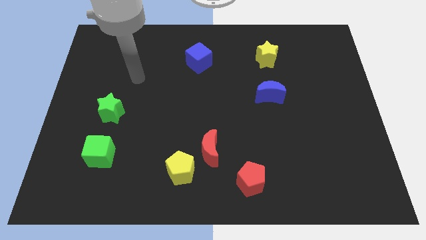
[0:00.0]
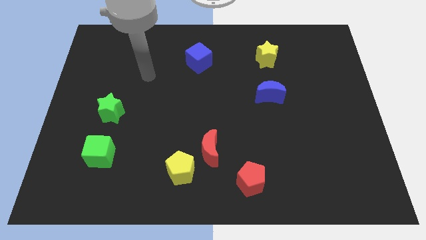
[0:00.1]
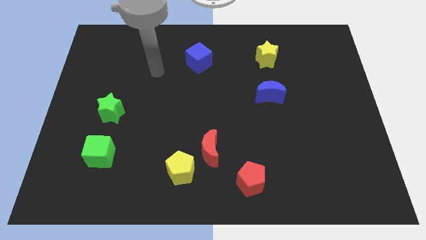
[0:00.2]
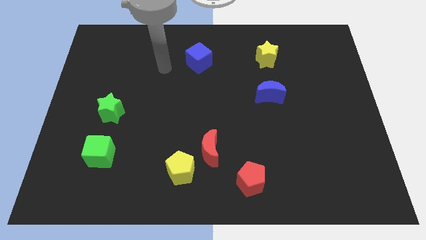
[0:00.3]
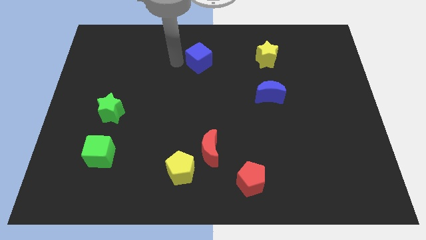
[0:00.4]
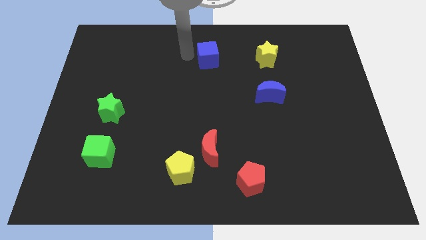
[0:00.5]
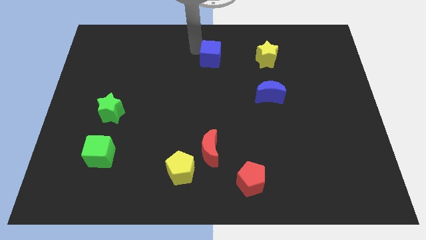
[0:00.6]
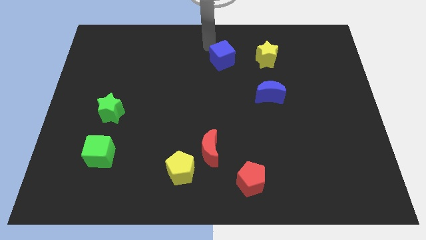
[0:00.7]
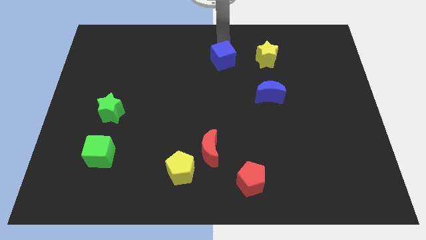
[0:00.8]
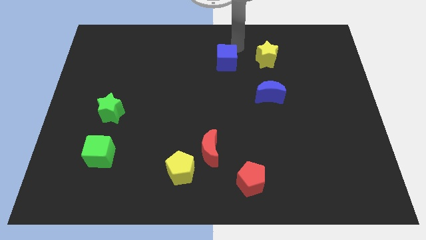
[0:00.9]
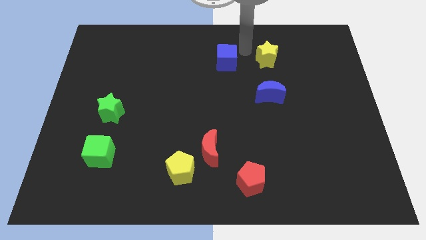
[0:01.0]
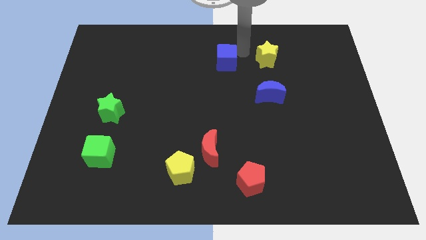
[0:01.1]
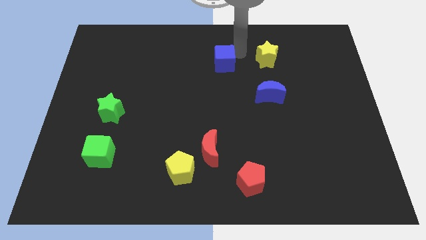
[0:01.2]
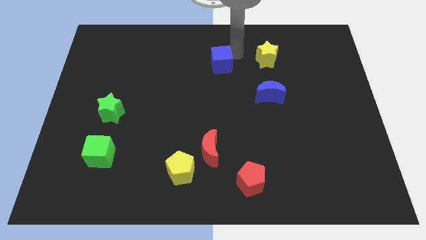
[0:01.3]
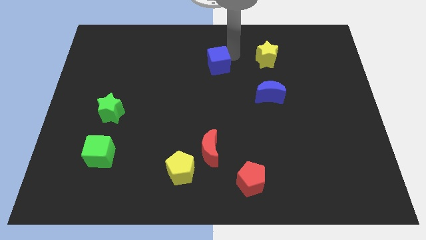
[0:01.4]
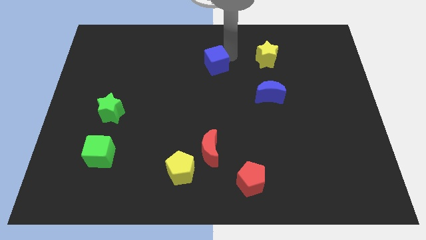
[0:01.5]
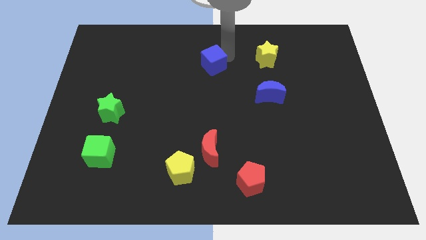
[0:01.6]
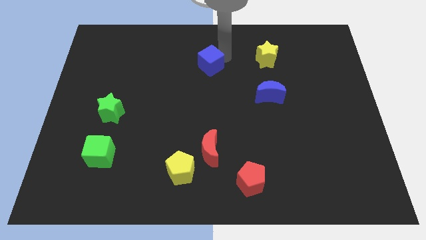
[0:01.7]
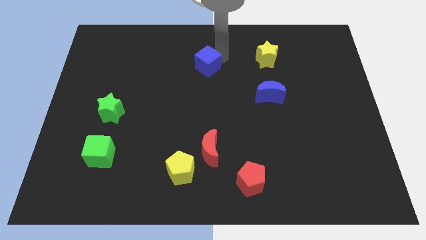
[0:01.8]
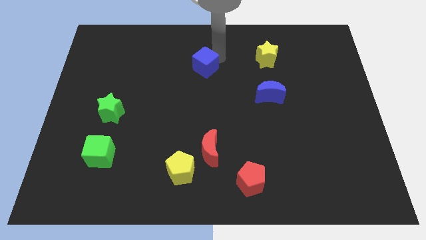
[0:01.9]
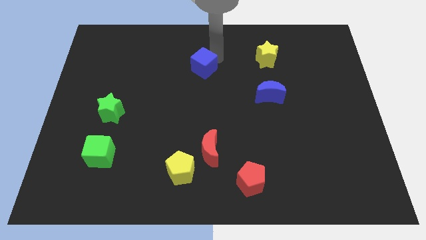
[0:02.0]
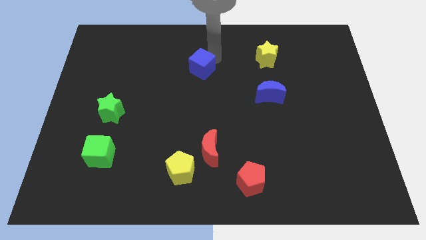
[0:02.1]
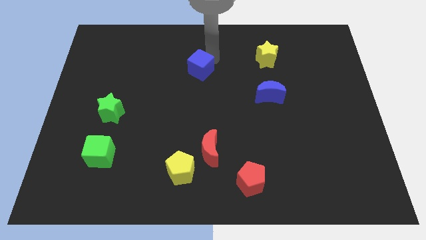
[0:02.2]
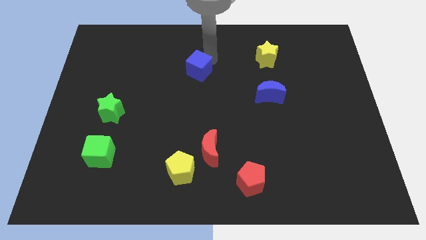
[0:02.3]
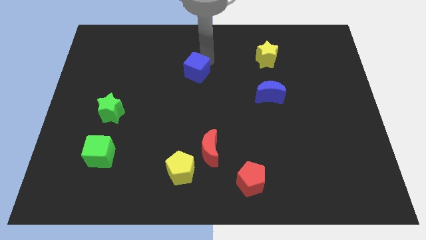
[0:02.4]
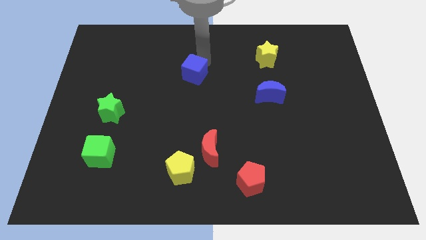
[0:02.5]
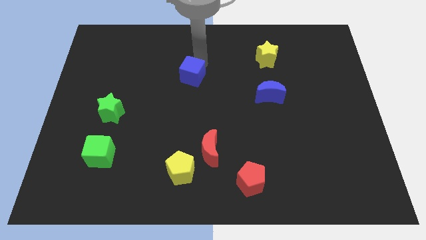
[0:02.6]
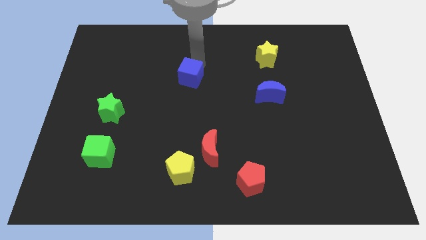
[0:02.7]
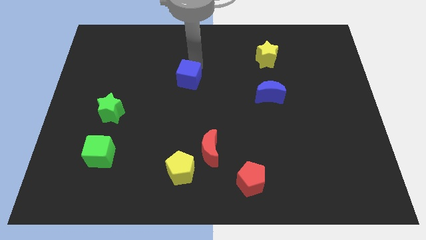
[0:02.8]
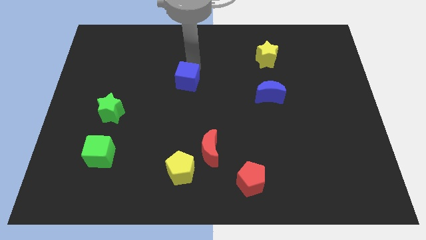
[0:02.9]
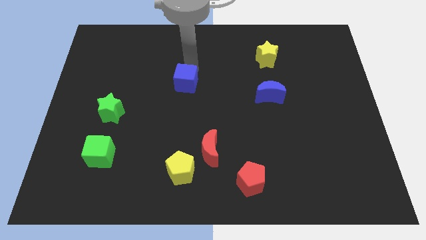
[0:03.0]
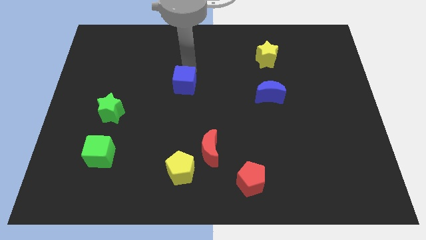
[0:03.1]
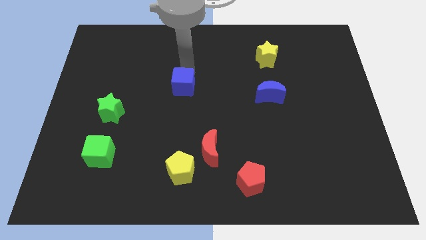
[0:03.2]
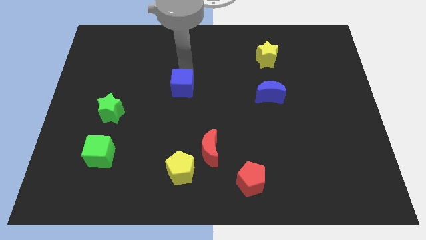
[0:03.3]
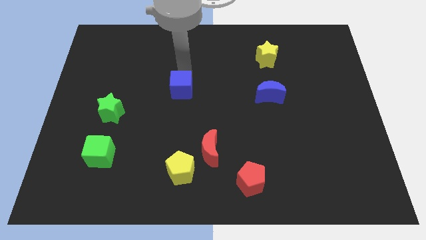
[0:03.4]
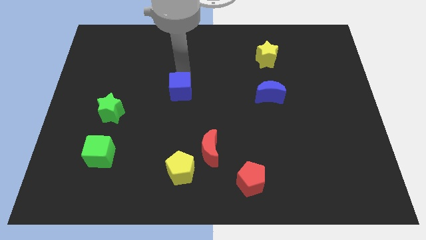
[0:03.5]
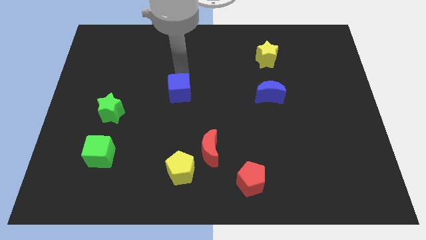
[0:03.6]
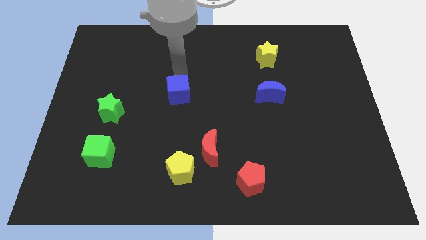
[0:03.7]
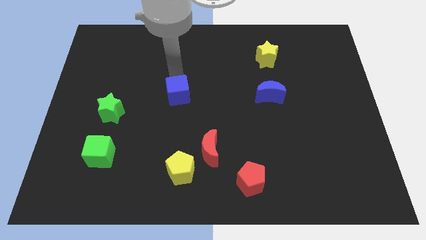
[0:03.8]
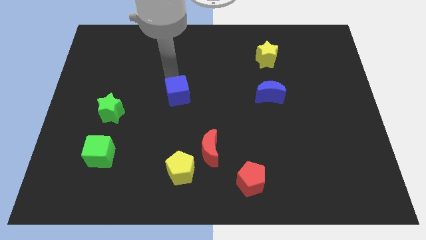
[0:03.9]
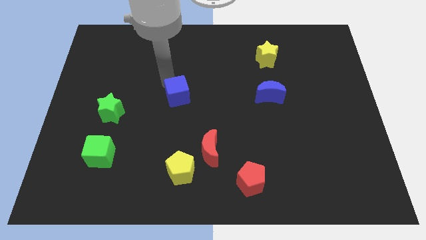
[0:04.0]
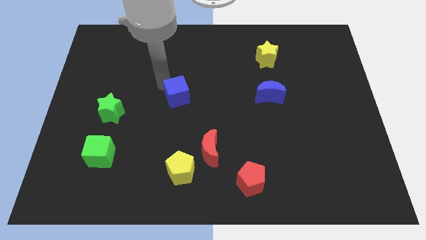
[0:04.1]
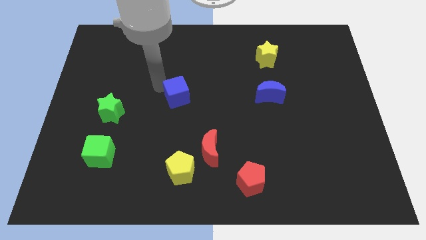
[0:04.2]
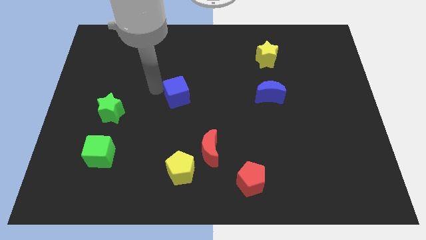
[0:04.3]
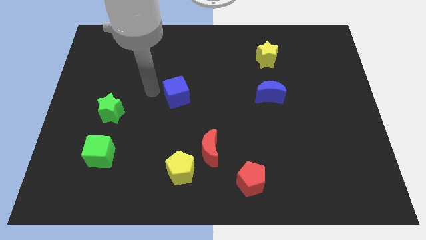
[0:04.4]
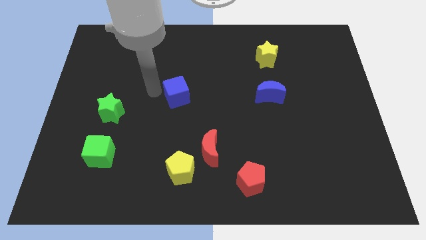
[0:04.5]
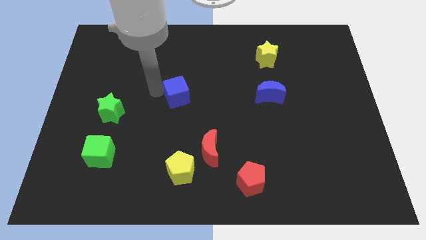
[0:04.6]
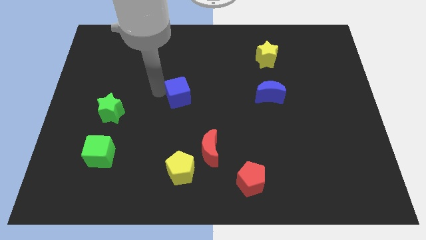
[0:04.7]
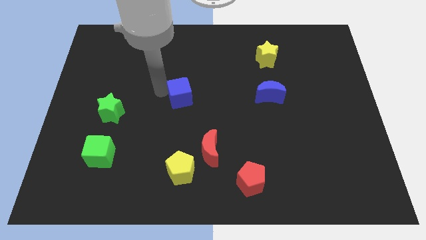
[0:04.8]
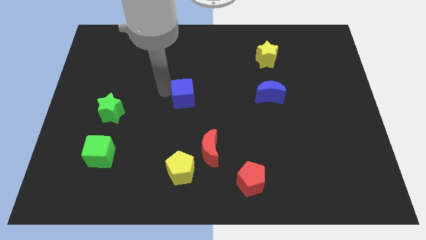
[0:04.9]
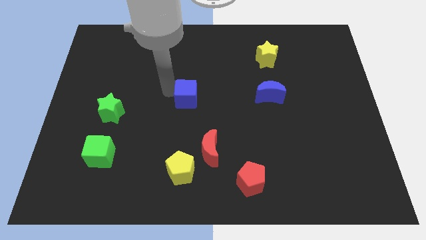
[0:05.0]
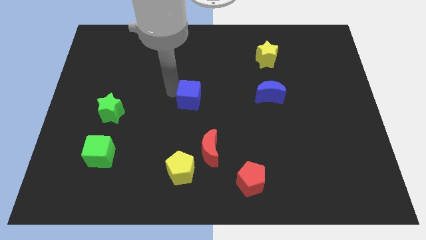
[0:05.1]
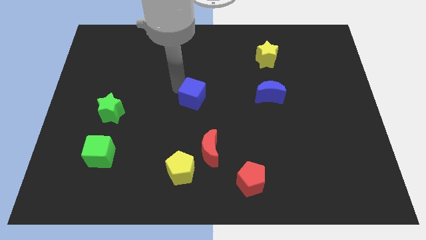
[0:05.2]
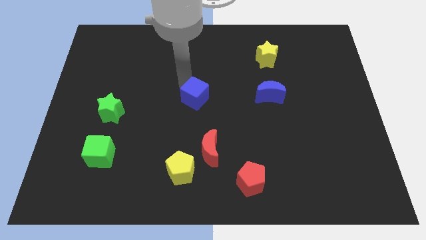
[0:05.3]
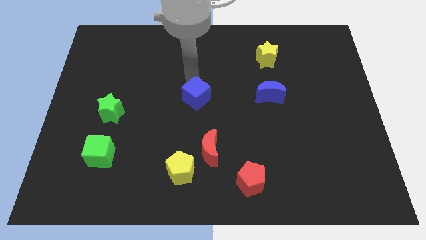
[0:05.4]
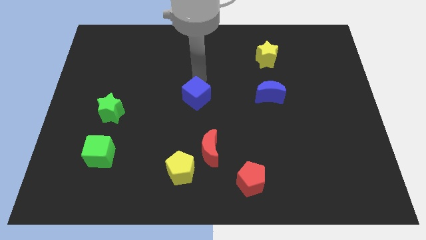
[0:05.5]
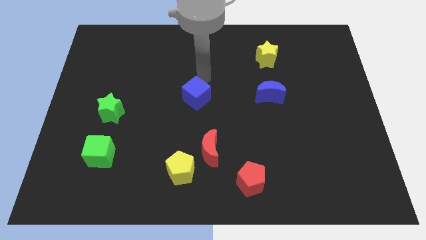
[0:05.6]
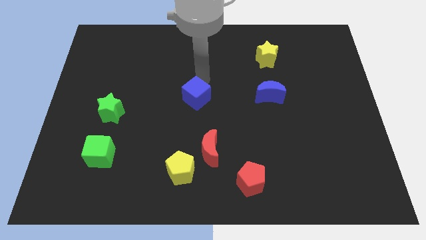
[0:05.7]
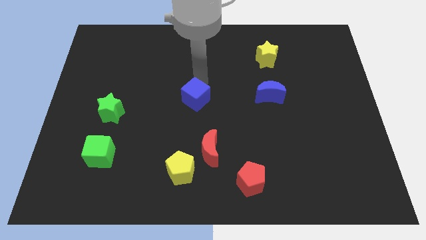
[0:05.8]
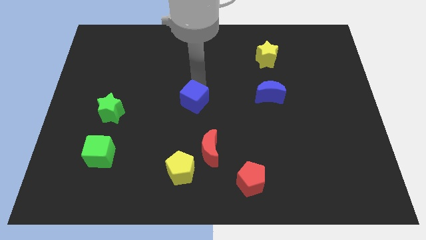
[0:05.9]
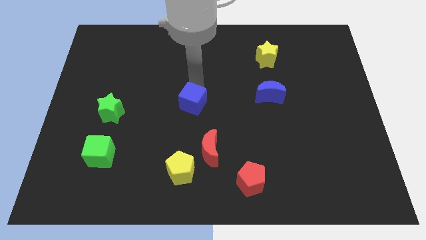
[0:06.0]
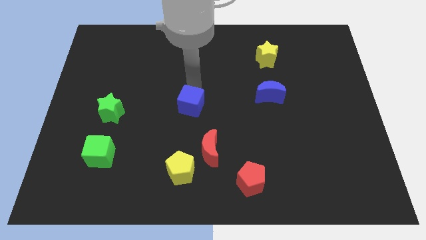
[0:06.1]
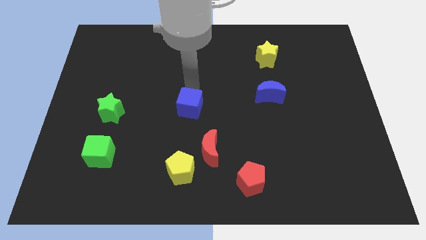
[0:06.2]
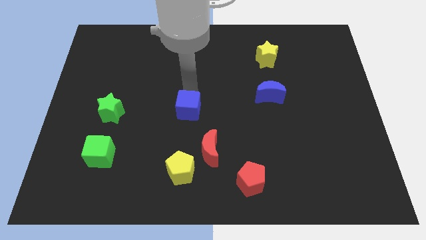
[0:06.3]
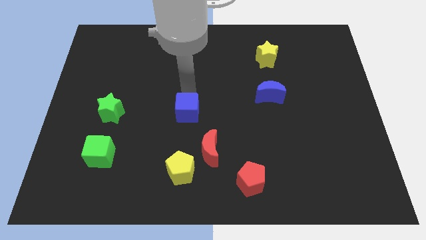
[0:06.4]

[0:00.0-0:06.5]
slide the blue cube to the top side of the yellow pentagon

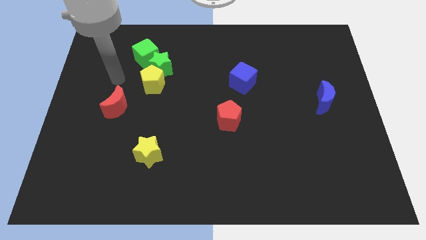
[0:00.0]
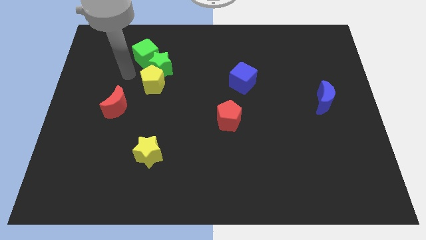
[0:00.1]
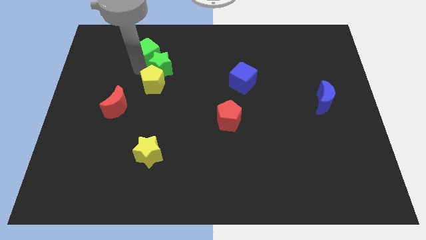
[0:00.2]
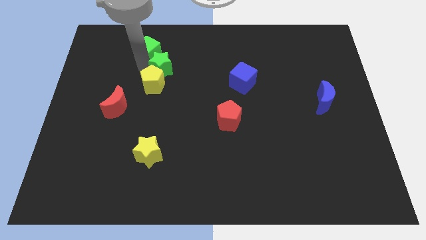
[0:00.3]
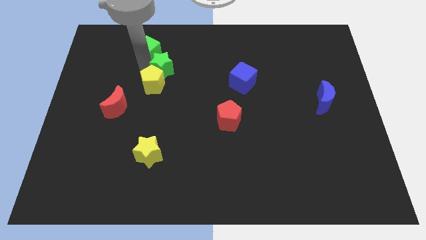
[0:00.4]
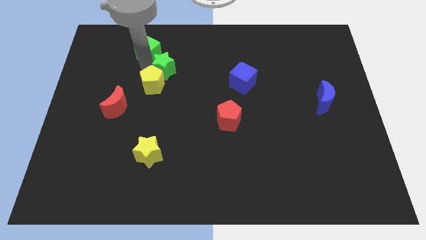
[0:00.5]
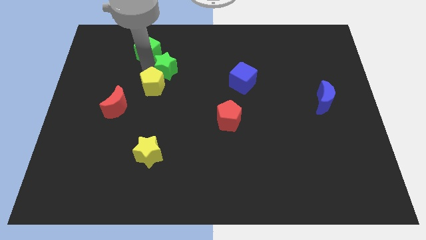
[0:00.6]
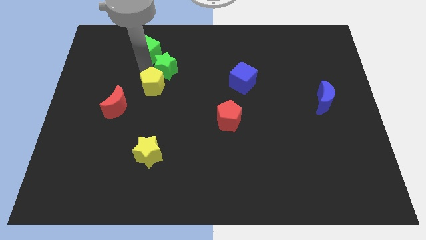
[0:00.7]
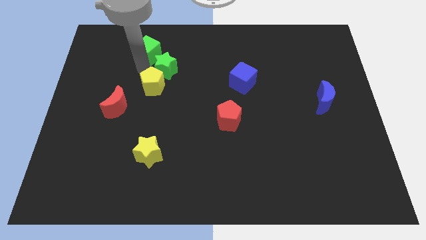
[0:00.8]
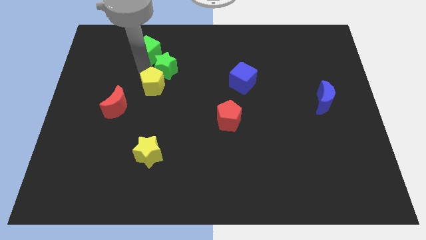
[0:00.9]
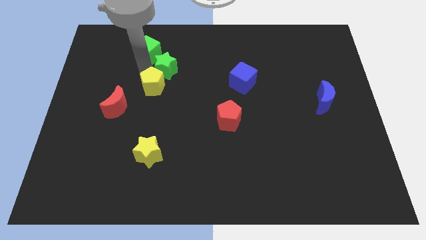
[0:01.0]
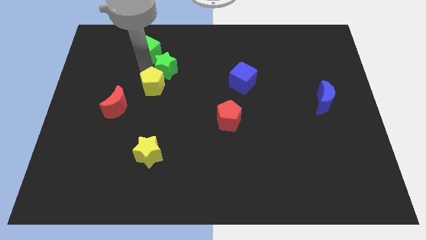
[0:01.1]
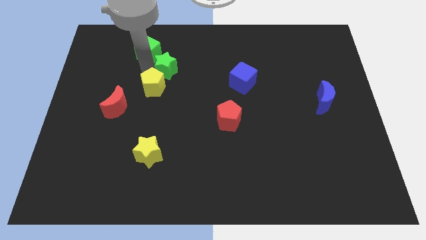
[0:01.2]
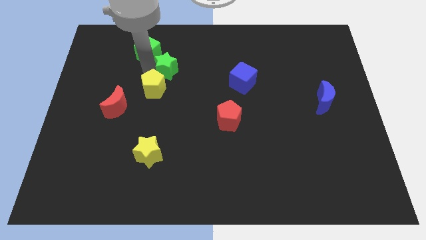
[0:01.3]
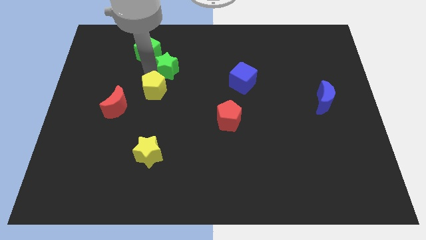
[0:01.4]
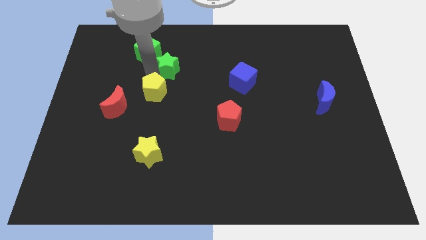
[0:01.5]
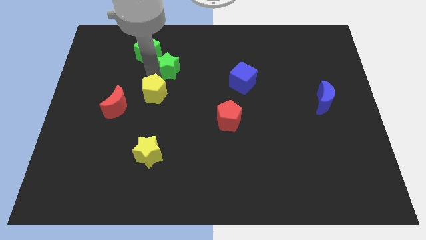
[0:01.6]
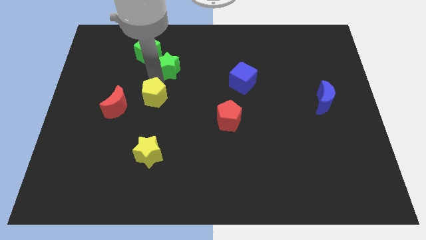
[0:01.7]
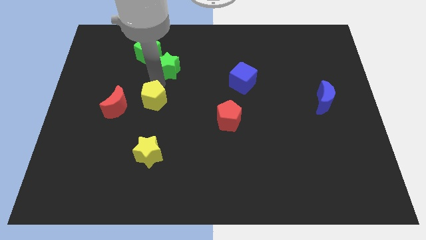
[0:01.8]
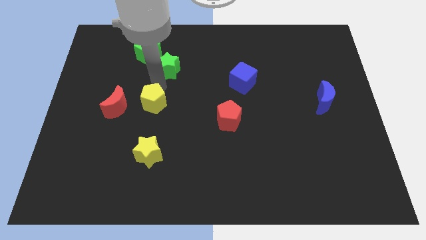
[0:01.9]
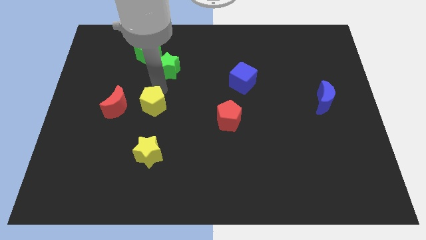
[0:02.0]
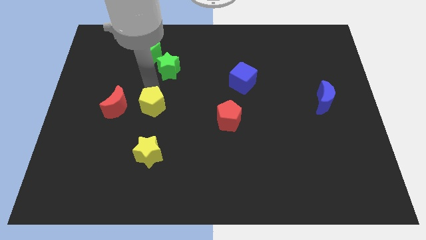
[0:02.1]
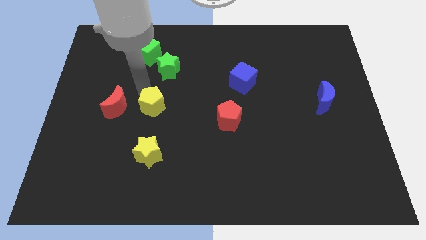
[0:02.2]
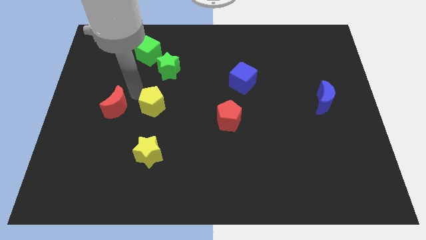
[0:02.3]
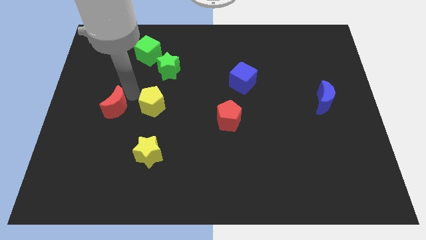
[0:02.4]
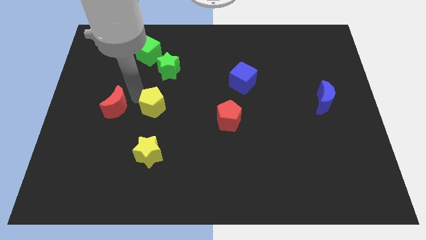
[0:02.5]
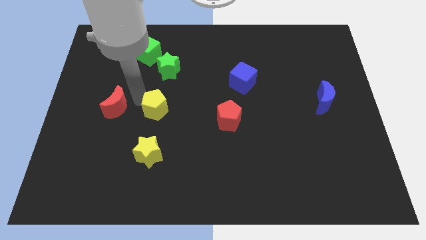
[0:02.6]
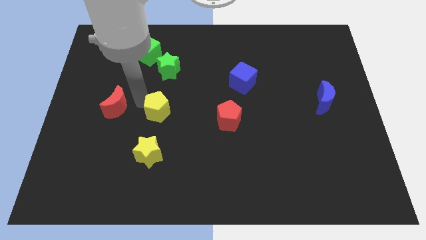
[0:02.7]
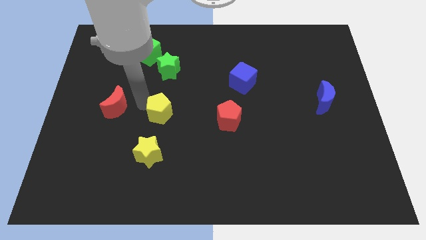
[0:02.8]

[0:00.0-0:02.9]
push the yellow pentagon left of the red pentagon
